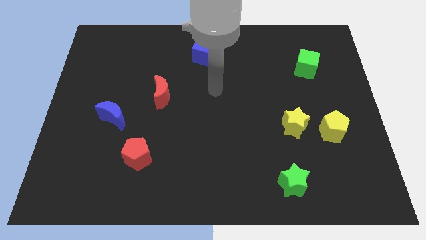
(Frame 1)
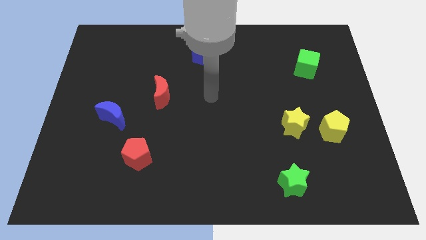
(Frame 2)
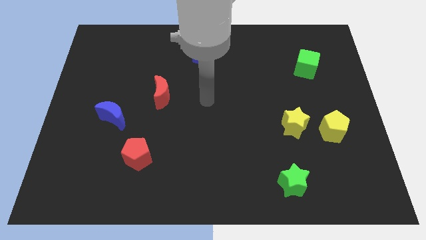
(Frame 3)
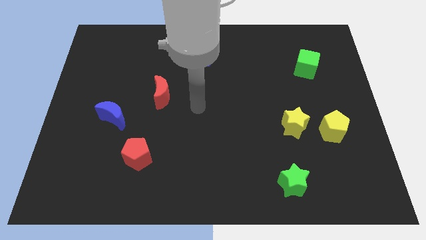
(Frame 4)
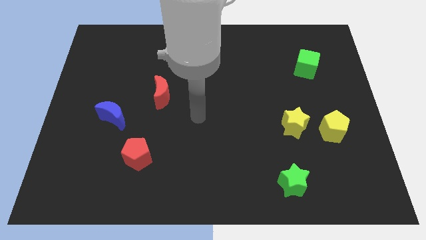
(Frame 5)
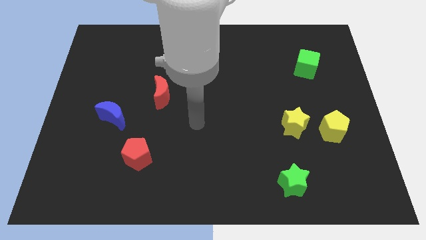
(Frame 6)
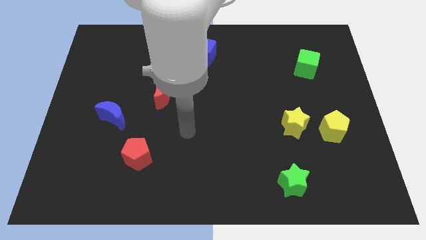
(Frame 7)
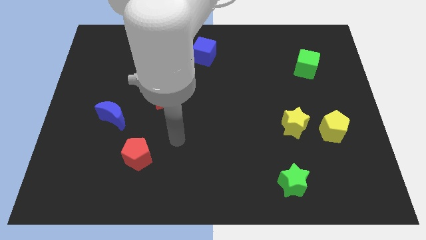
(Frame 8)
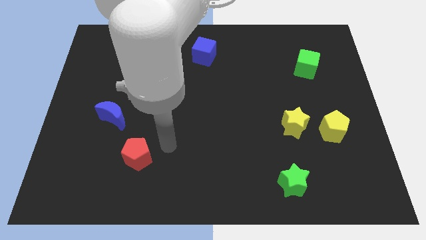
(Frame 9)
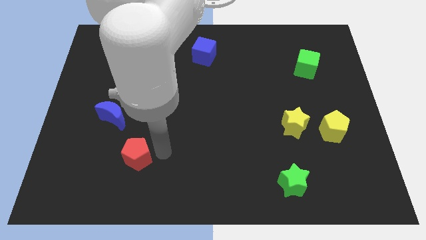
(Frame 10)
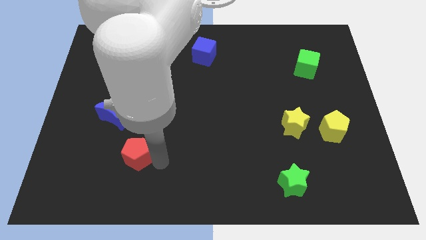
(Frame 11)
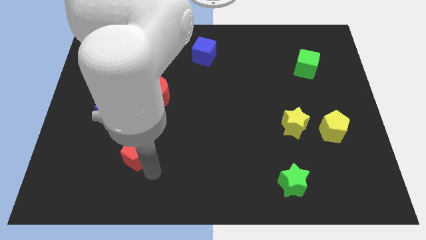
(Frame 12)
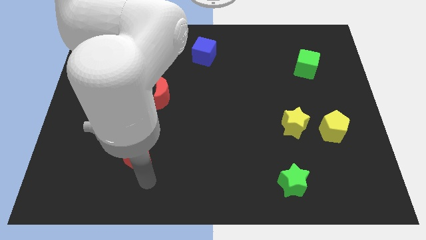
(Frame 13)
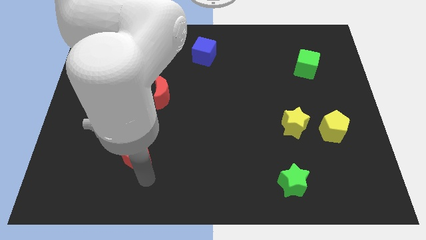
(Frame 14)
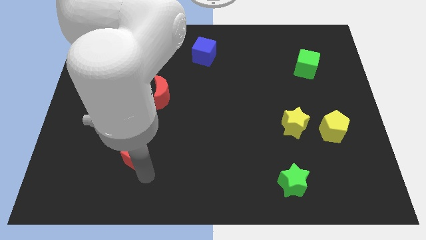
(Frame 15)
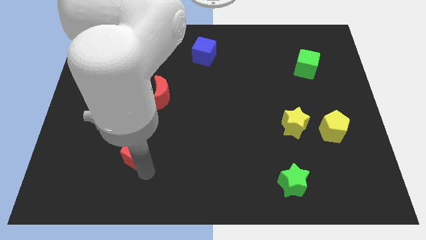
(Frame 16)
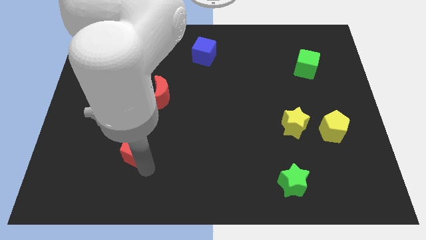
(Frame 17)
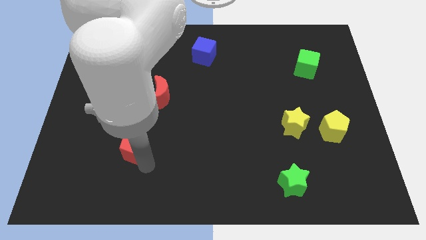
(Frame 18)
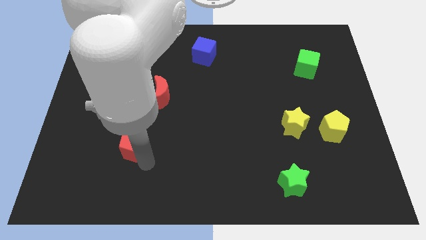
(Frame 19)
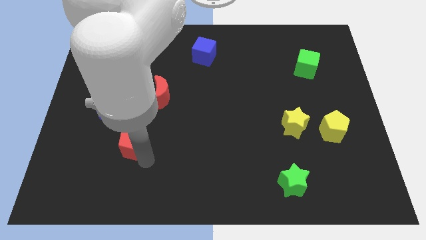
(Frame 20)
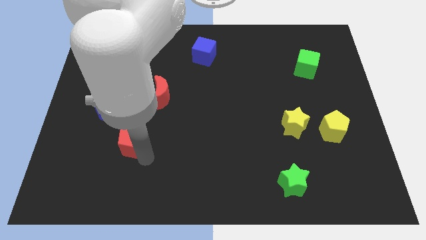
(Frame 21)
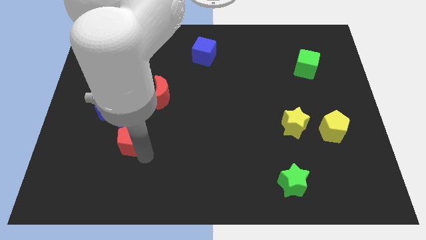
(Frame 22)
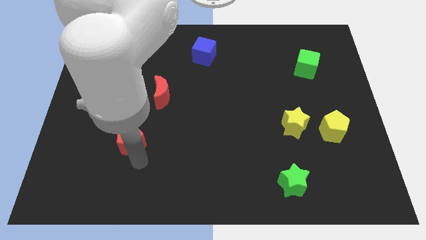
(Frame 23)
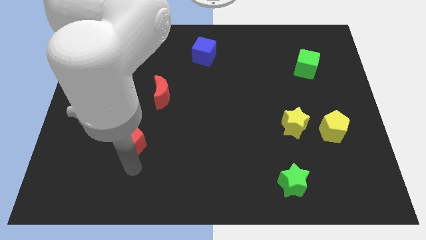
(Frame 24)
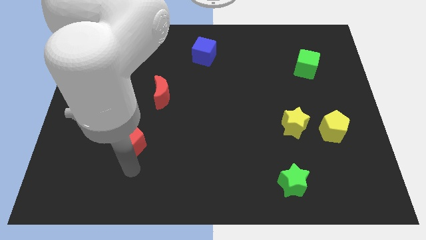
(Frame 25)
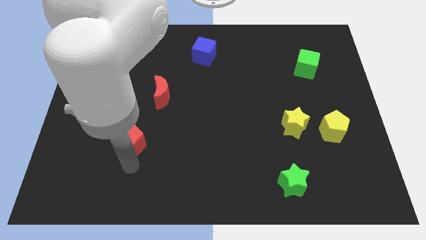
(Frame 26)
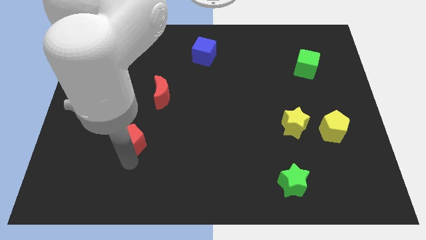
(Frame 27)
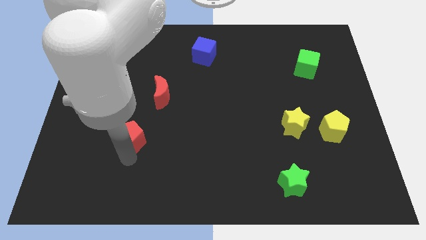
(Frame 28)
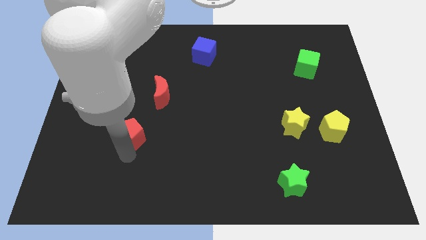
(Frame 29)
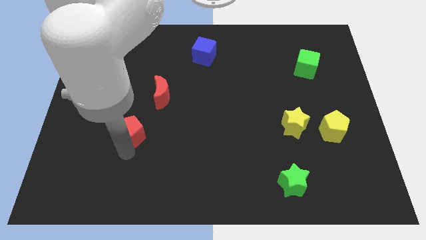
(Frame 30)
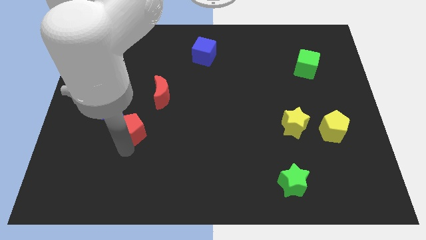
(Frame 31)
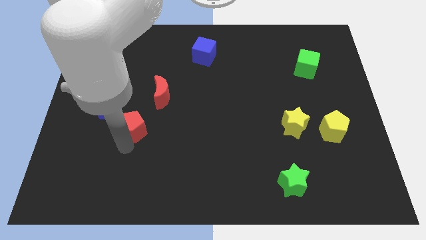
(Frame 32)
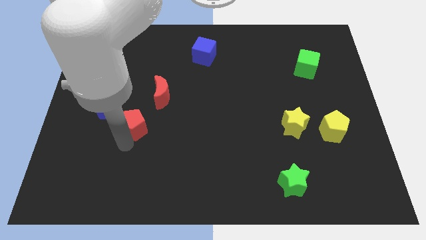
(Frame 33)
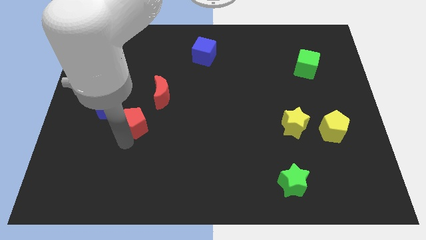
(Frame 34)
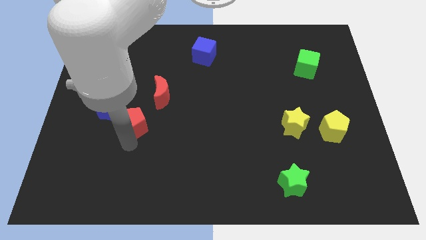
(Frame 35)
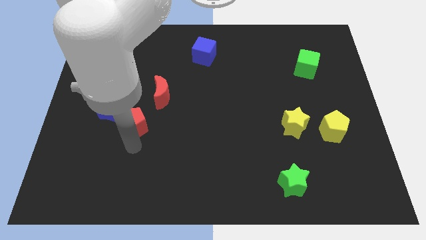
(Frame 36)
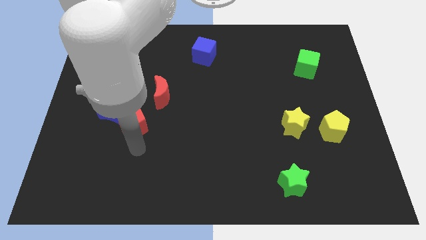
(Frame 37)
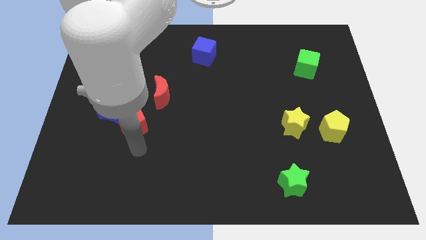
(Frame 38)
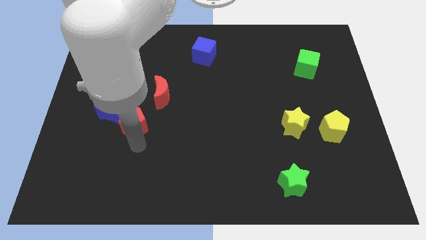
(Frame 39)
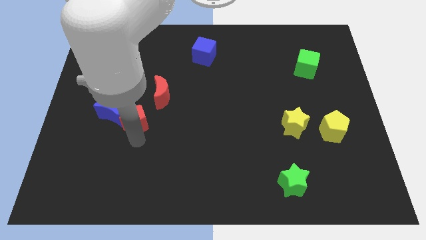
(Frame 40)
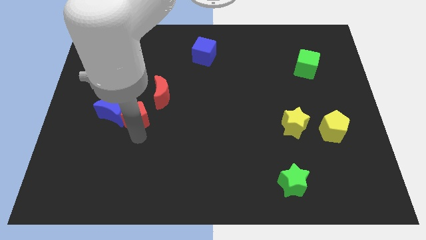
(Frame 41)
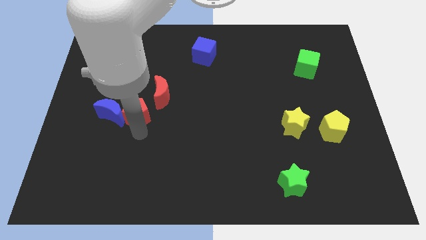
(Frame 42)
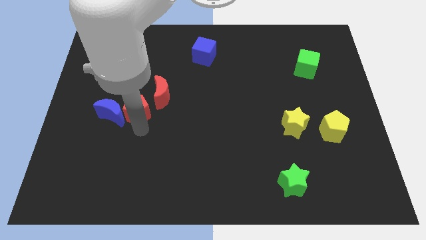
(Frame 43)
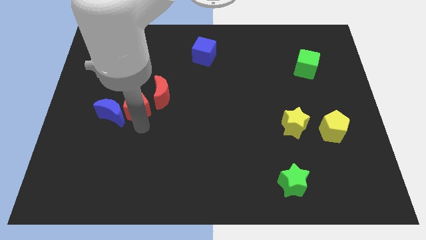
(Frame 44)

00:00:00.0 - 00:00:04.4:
move the red pentagon left of the red moon

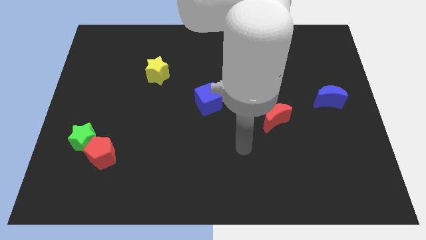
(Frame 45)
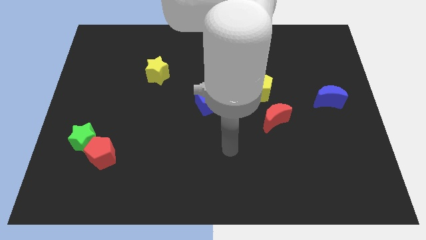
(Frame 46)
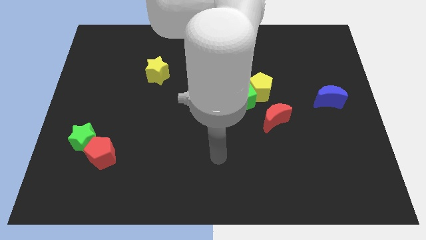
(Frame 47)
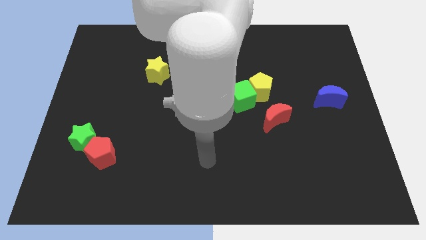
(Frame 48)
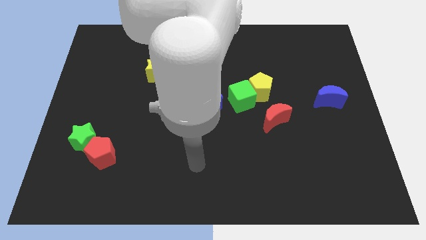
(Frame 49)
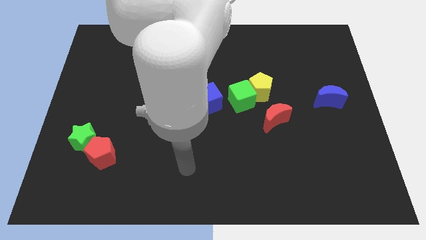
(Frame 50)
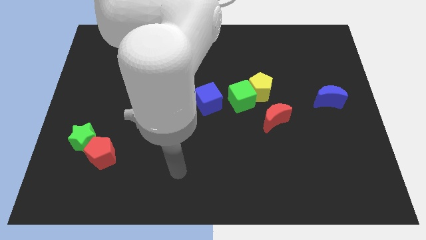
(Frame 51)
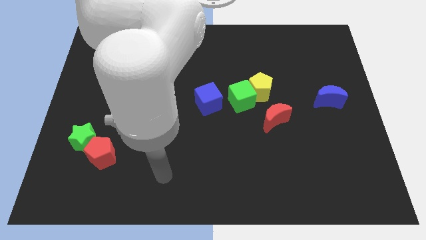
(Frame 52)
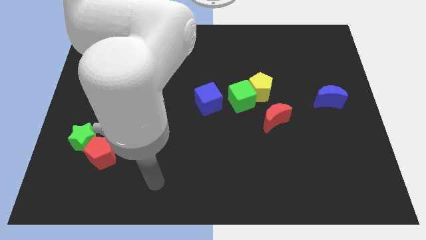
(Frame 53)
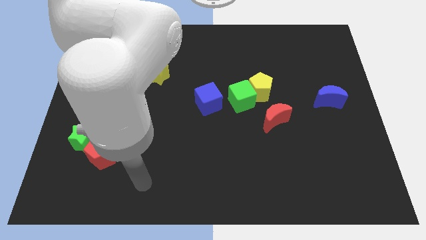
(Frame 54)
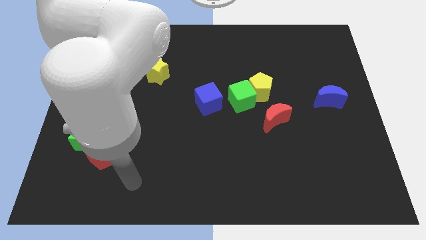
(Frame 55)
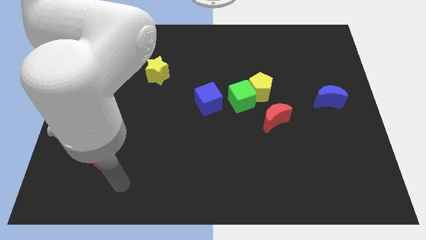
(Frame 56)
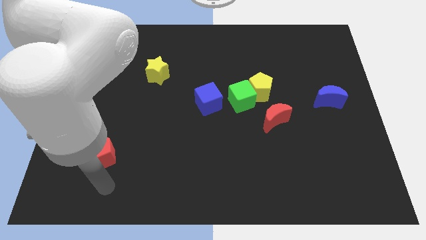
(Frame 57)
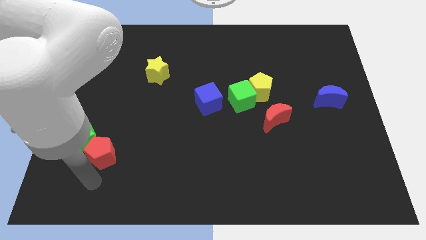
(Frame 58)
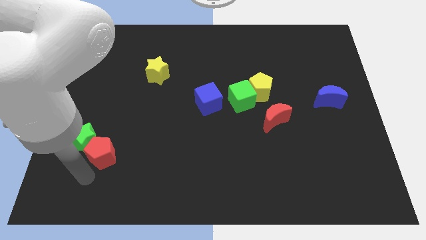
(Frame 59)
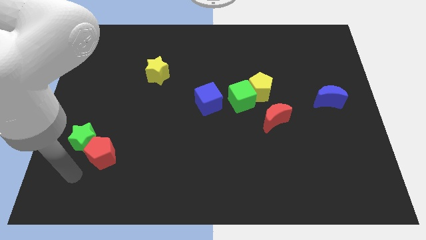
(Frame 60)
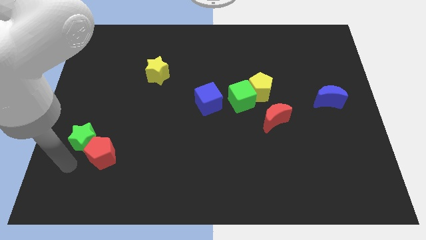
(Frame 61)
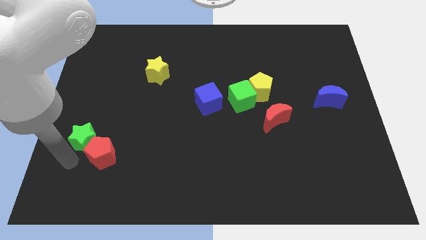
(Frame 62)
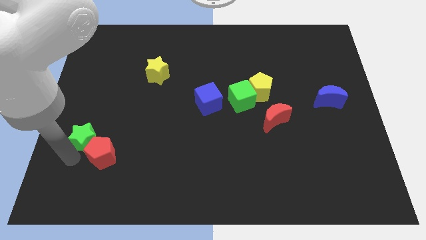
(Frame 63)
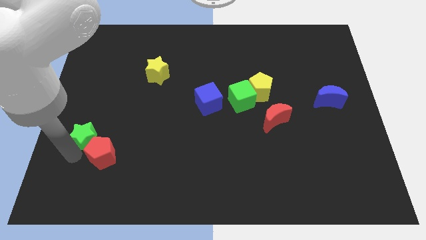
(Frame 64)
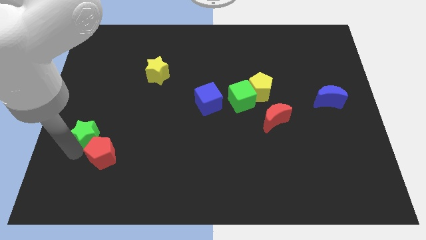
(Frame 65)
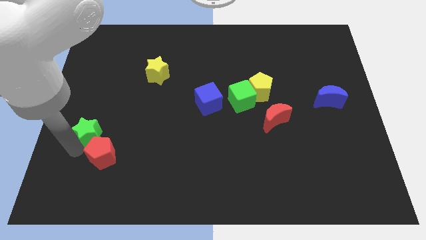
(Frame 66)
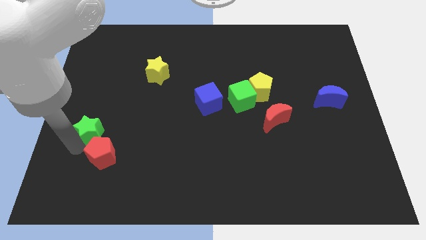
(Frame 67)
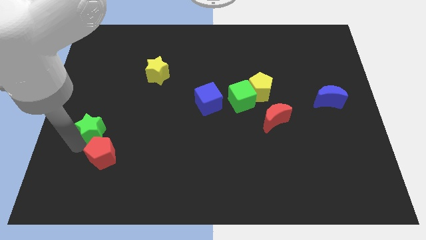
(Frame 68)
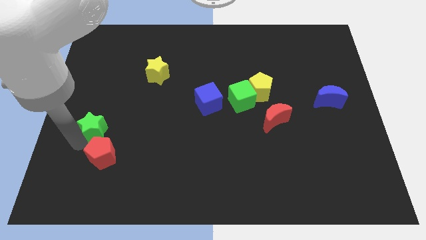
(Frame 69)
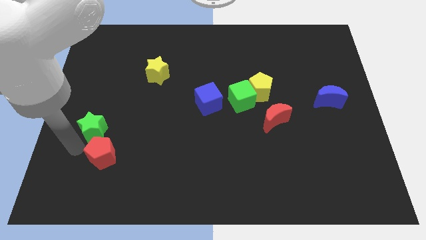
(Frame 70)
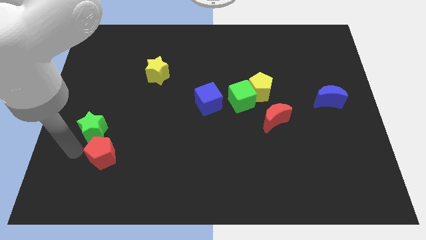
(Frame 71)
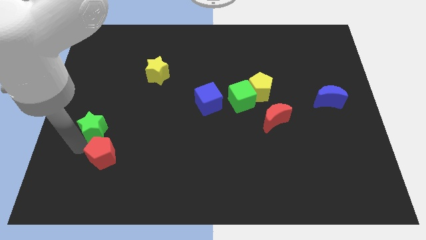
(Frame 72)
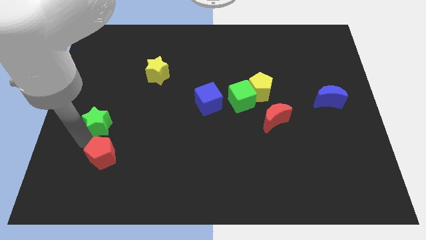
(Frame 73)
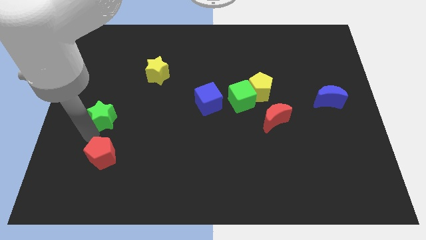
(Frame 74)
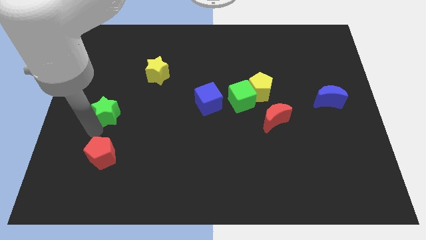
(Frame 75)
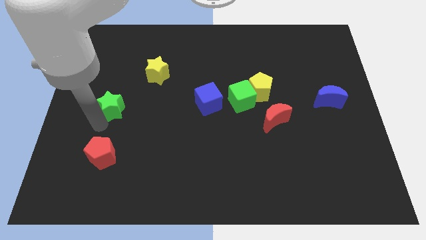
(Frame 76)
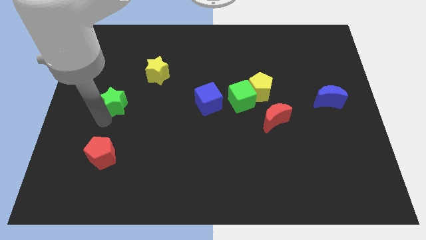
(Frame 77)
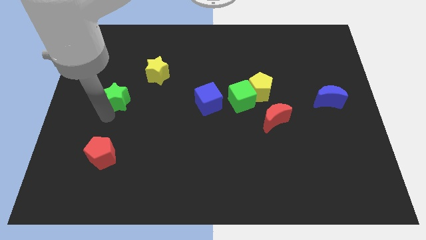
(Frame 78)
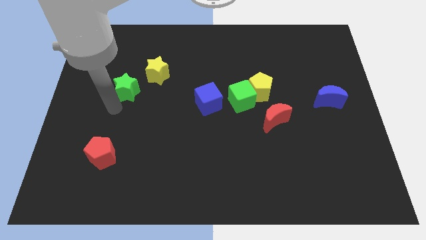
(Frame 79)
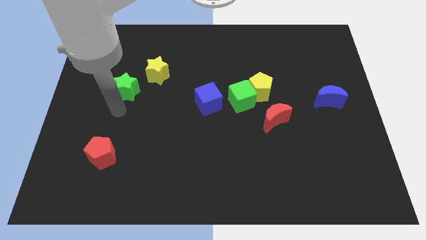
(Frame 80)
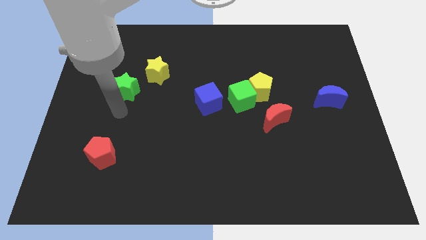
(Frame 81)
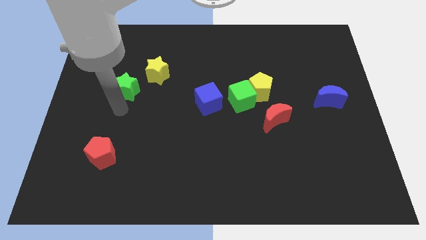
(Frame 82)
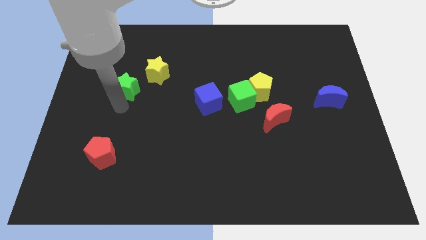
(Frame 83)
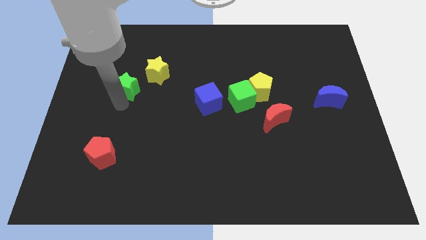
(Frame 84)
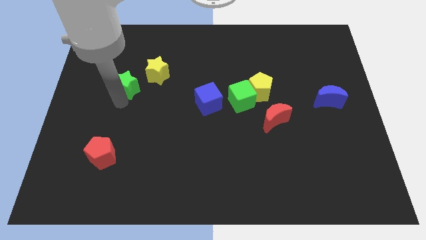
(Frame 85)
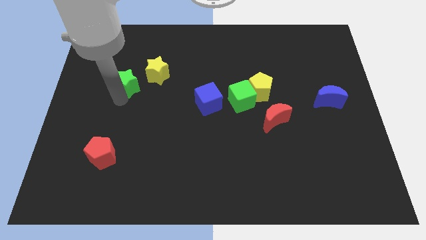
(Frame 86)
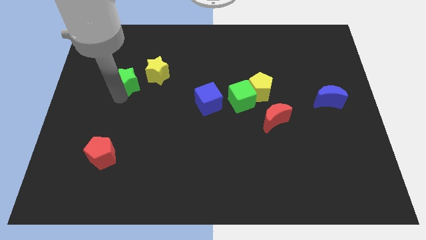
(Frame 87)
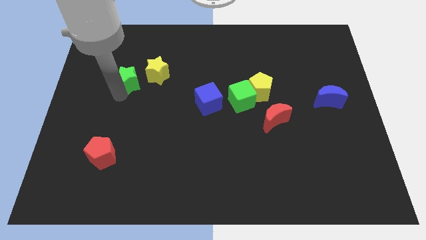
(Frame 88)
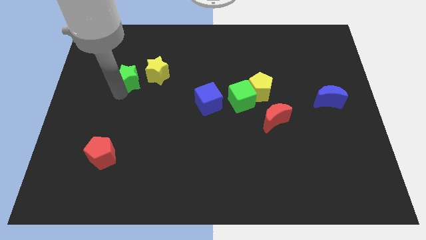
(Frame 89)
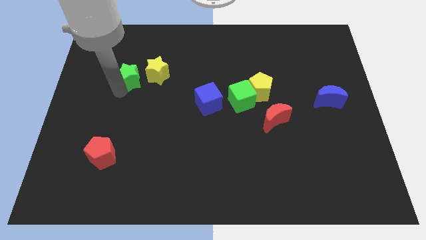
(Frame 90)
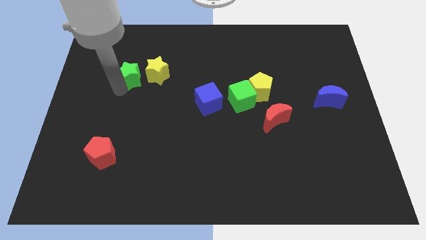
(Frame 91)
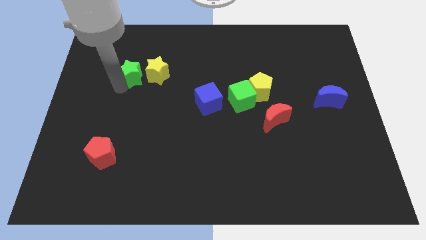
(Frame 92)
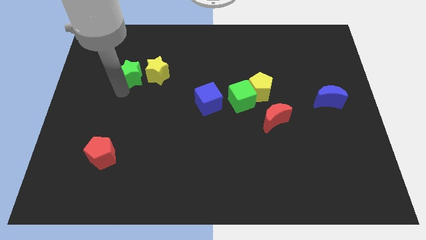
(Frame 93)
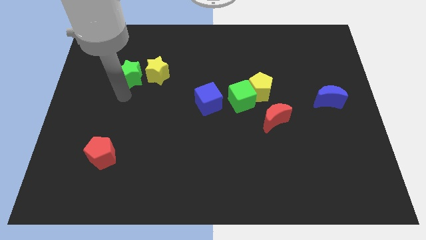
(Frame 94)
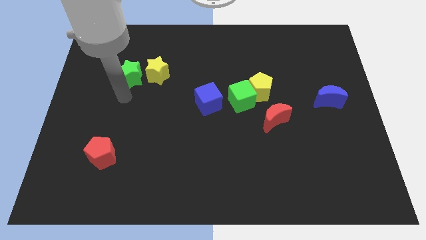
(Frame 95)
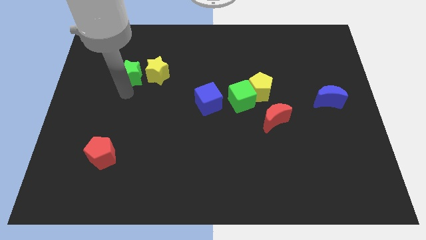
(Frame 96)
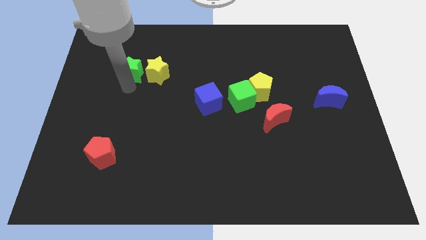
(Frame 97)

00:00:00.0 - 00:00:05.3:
move the green star to the top left of the yellow star
